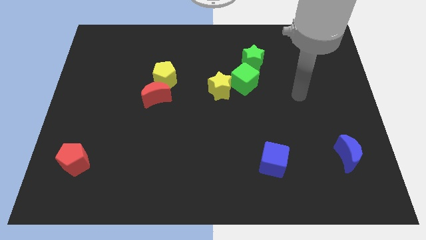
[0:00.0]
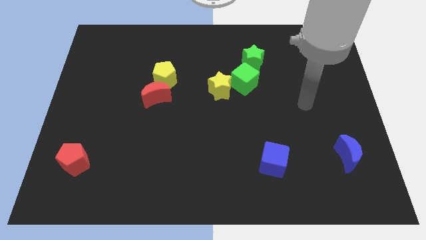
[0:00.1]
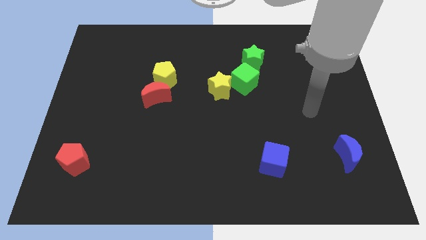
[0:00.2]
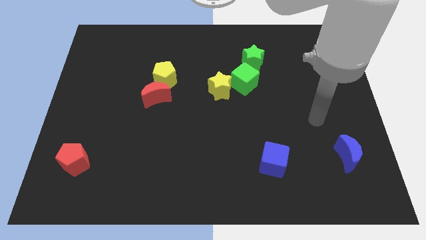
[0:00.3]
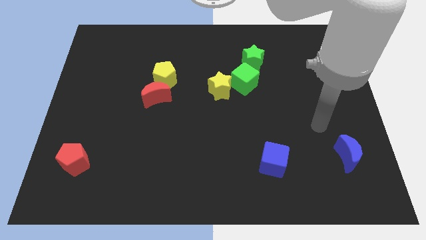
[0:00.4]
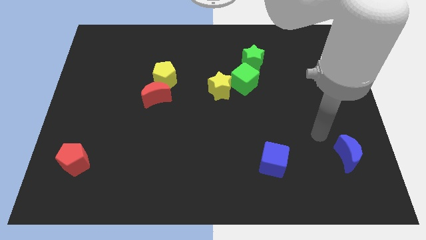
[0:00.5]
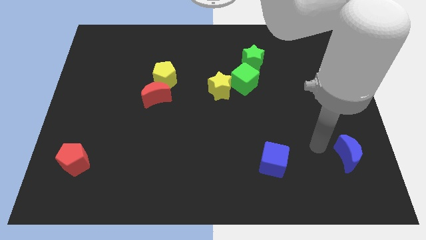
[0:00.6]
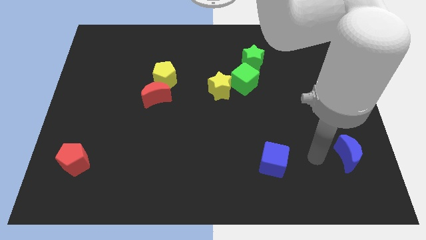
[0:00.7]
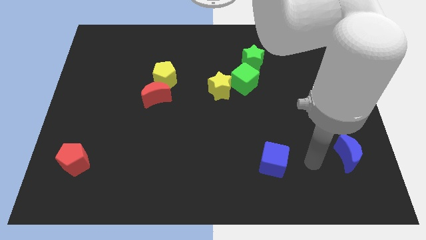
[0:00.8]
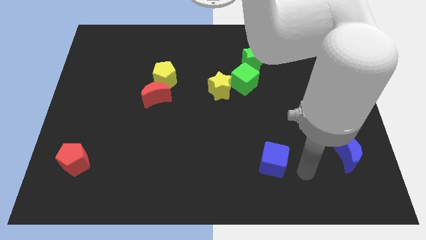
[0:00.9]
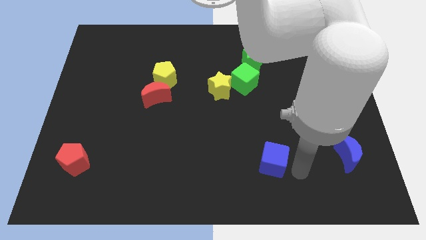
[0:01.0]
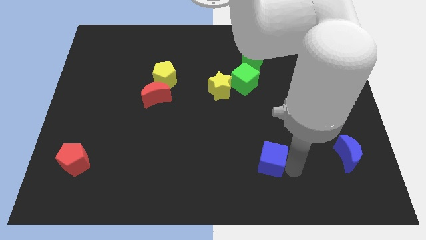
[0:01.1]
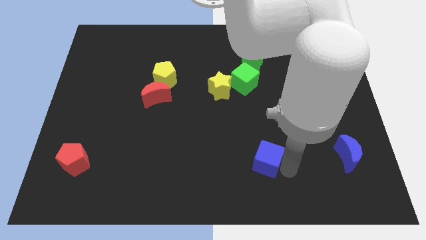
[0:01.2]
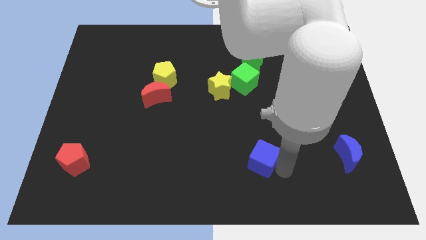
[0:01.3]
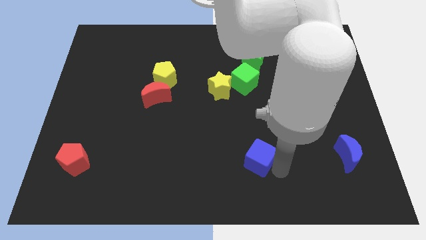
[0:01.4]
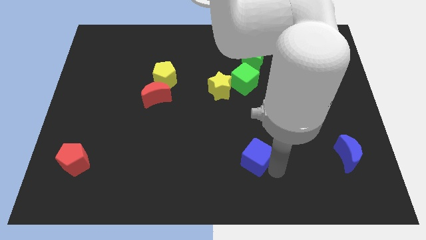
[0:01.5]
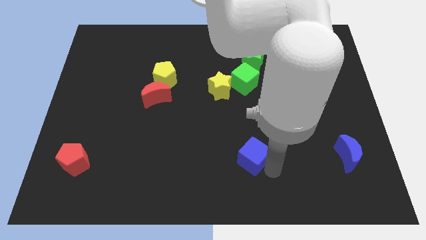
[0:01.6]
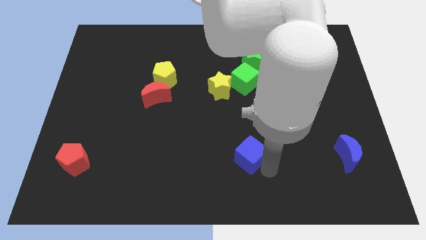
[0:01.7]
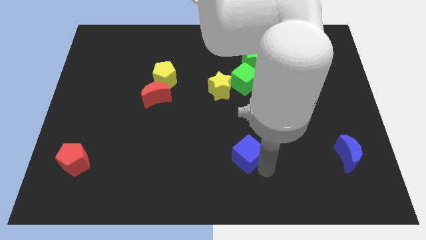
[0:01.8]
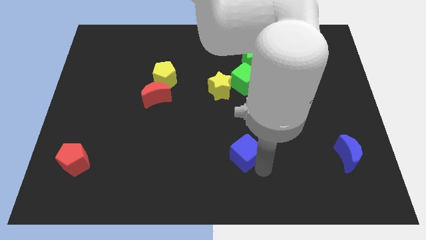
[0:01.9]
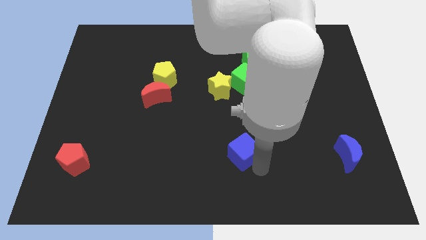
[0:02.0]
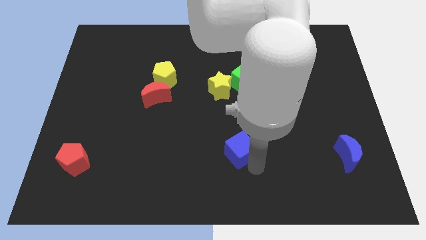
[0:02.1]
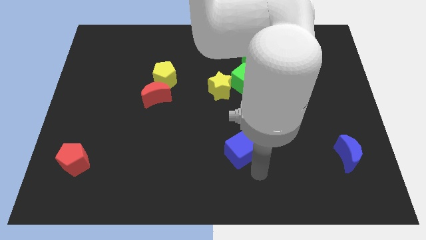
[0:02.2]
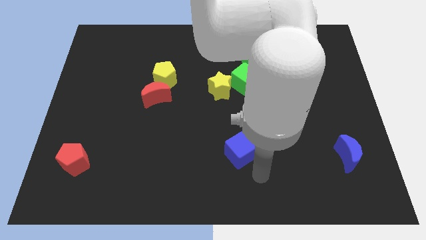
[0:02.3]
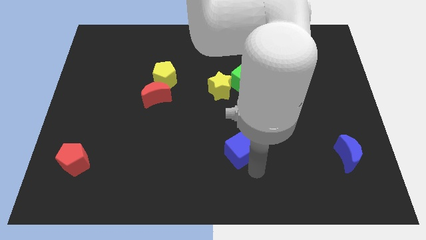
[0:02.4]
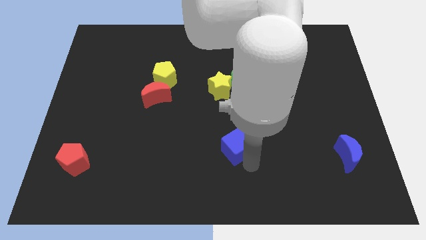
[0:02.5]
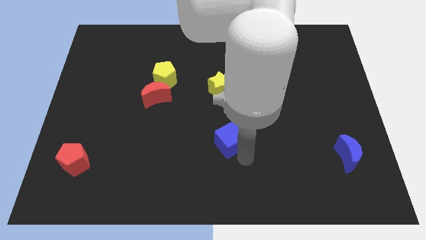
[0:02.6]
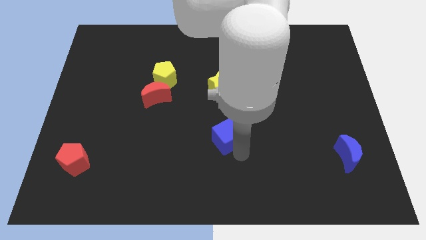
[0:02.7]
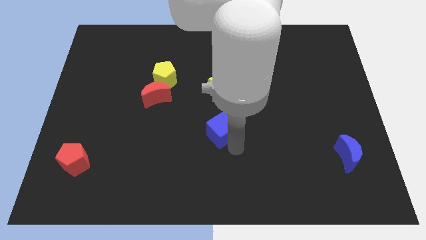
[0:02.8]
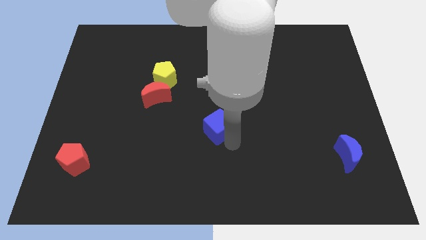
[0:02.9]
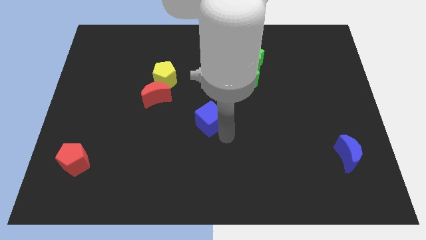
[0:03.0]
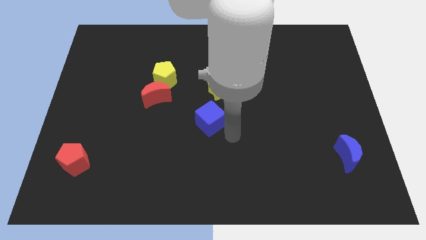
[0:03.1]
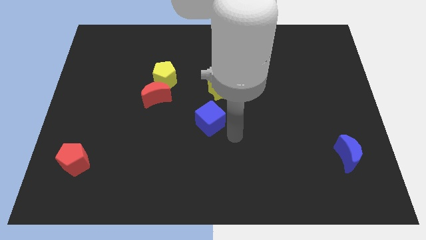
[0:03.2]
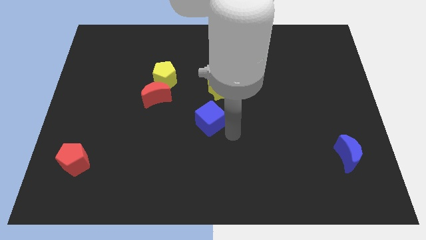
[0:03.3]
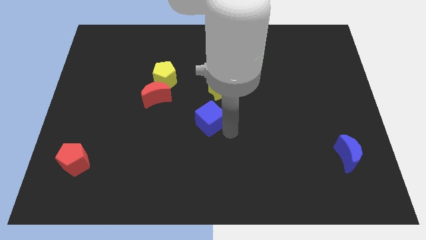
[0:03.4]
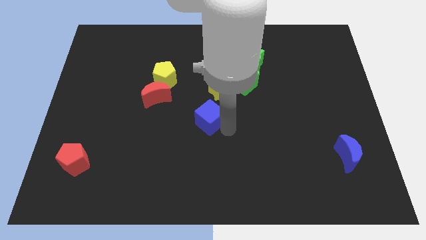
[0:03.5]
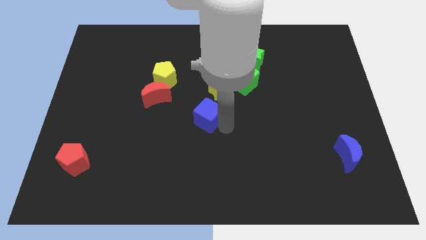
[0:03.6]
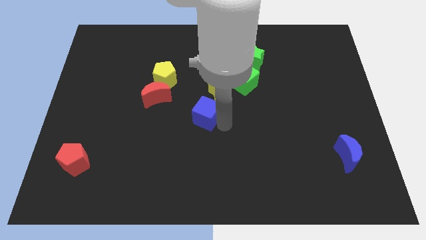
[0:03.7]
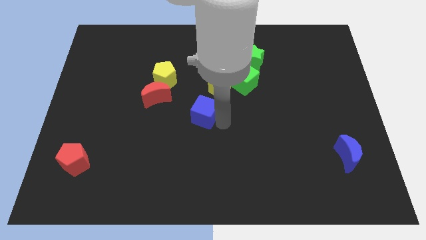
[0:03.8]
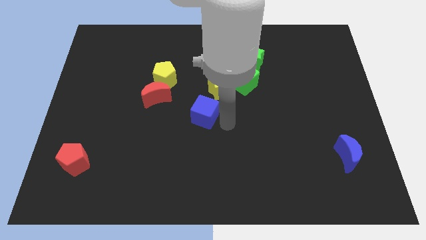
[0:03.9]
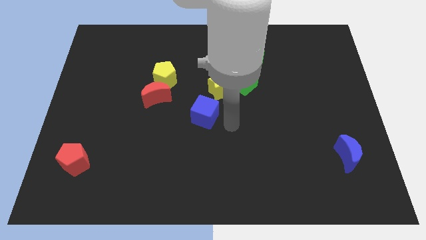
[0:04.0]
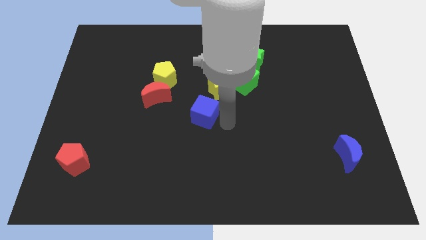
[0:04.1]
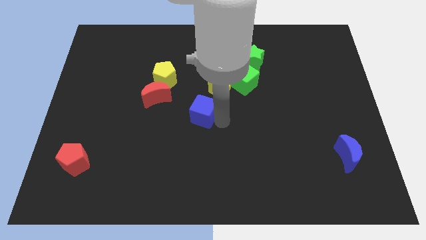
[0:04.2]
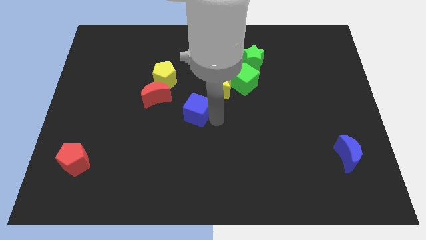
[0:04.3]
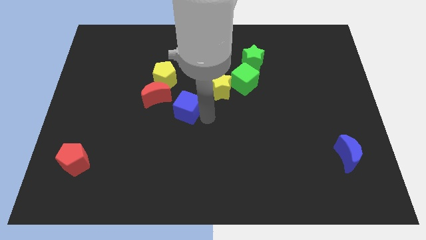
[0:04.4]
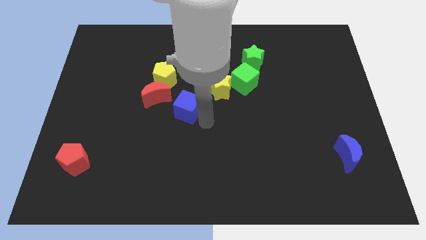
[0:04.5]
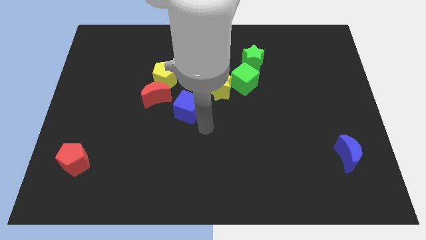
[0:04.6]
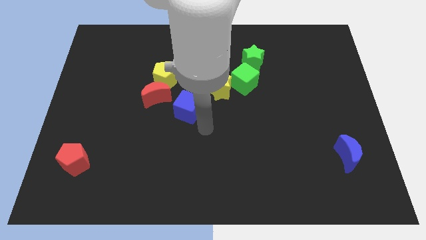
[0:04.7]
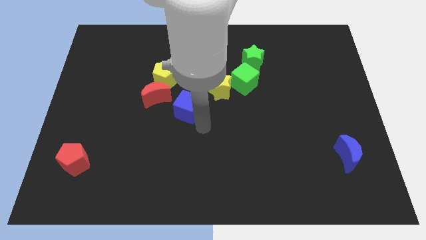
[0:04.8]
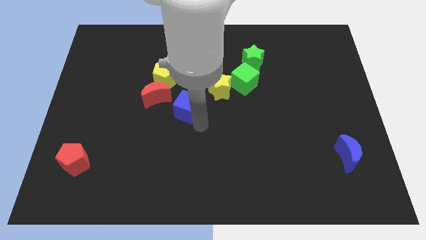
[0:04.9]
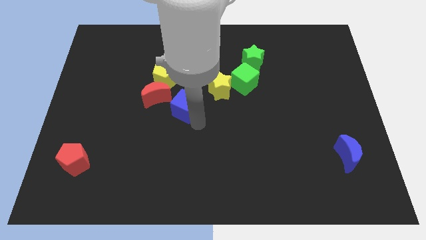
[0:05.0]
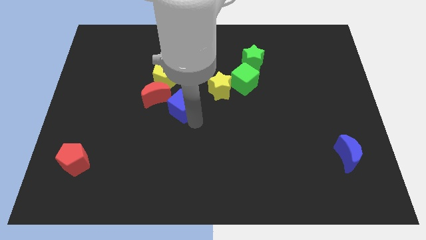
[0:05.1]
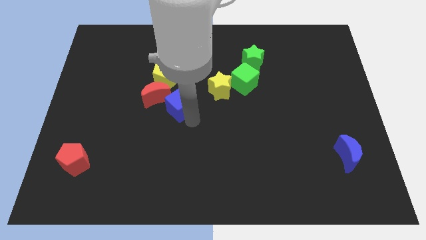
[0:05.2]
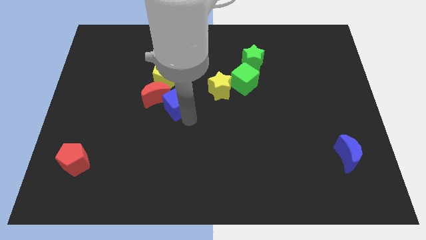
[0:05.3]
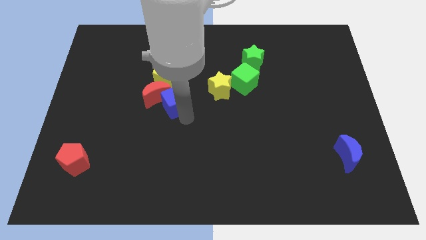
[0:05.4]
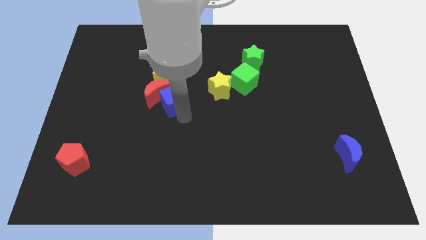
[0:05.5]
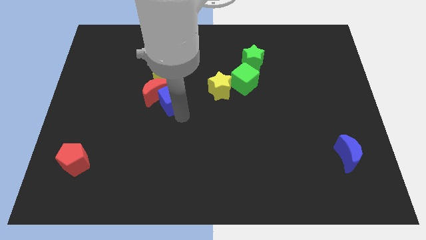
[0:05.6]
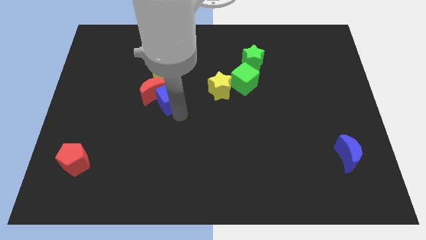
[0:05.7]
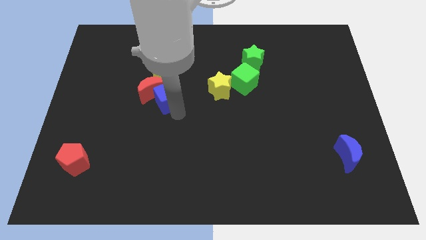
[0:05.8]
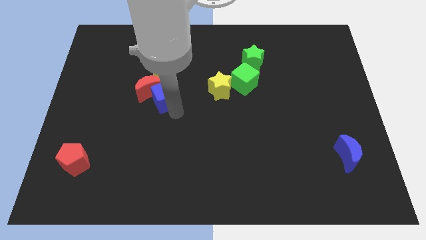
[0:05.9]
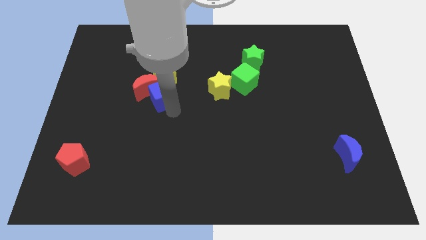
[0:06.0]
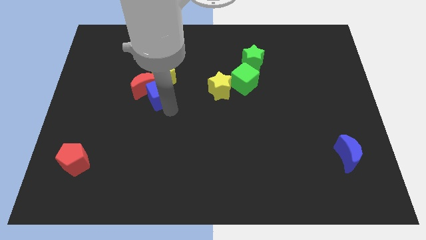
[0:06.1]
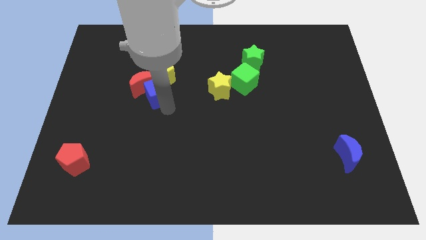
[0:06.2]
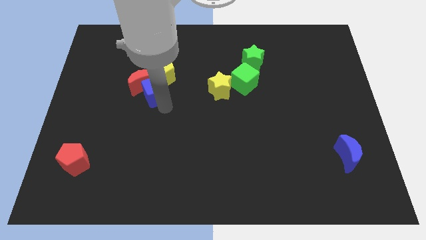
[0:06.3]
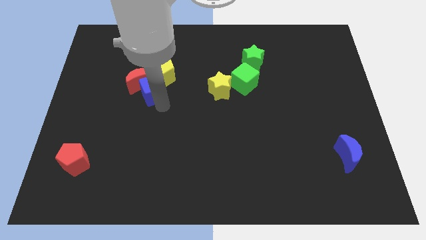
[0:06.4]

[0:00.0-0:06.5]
put the blue cube to the yellow pentagon

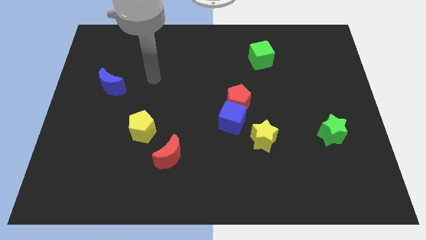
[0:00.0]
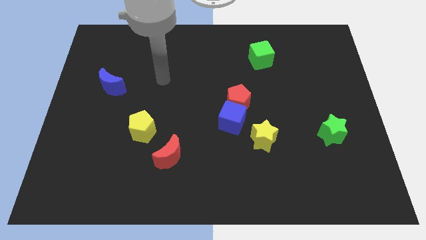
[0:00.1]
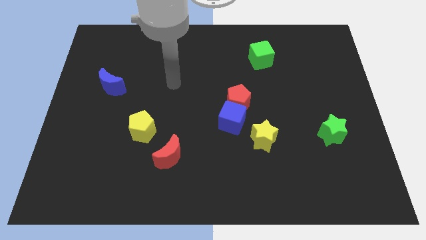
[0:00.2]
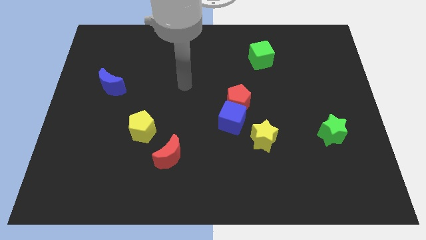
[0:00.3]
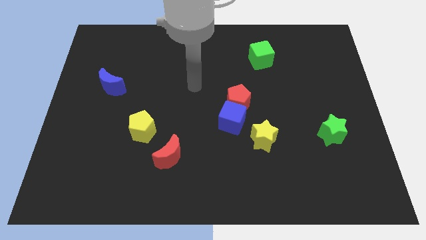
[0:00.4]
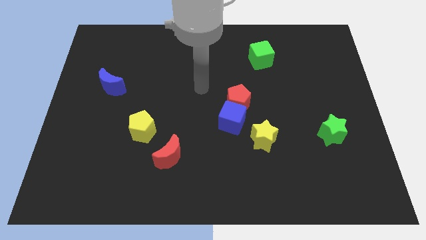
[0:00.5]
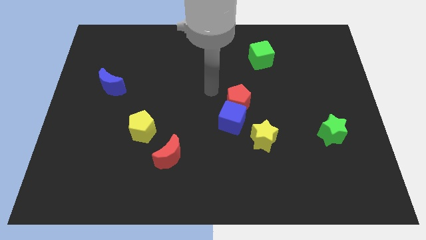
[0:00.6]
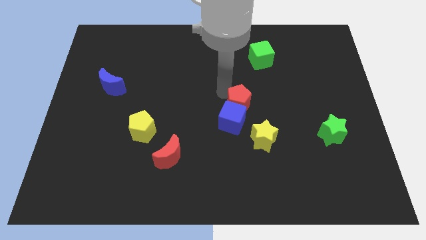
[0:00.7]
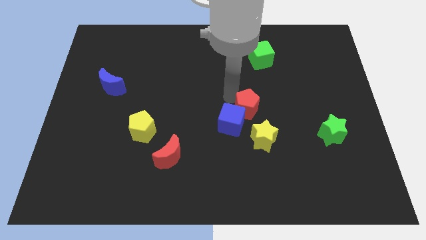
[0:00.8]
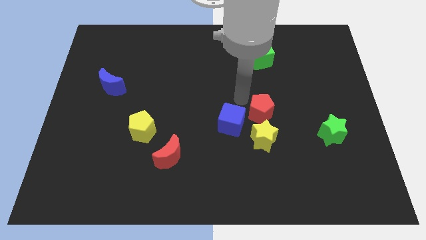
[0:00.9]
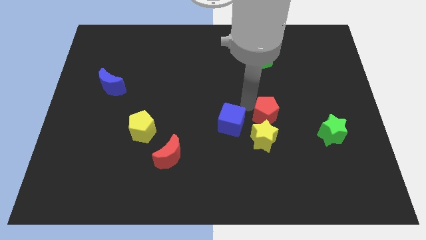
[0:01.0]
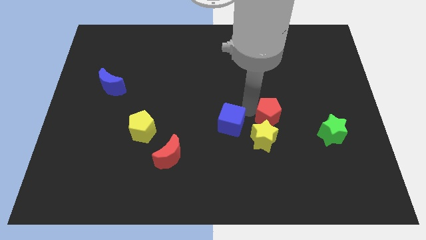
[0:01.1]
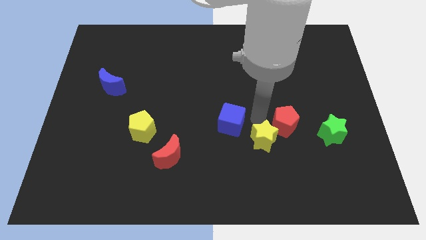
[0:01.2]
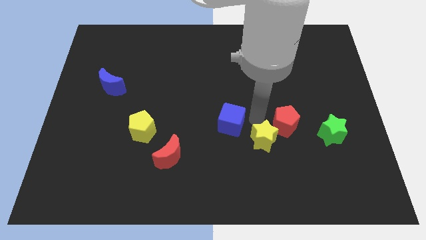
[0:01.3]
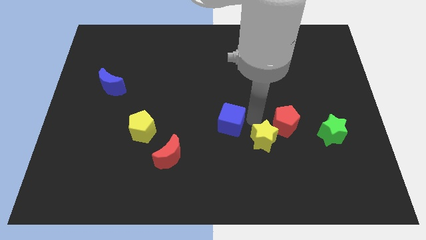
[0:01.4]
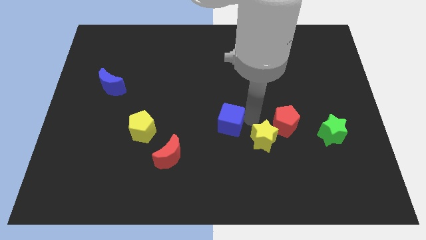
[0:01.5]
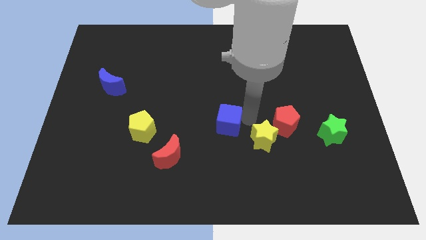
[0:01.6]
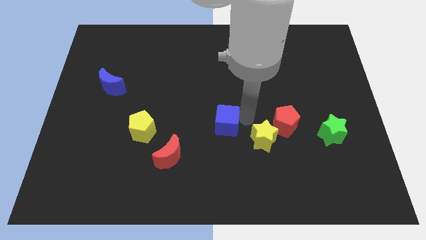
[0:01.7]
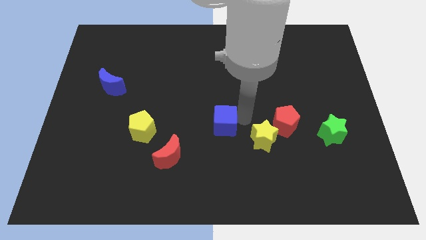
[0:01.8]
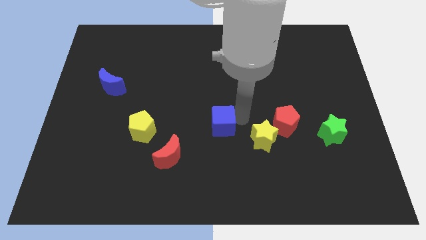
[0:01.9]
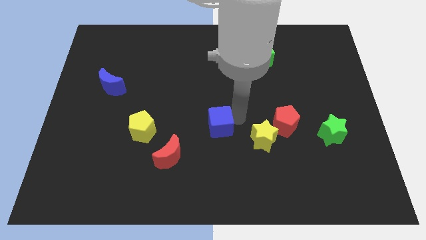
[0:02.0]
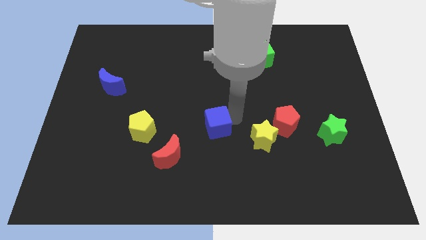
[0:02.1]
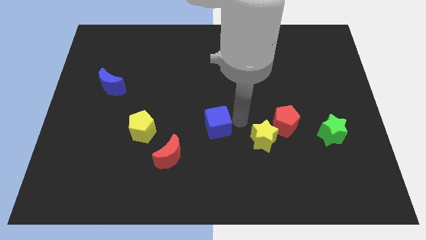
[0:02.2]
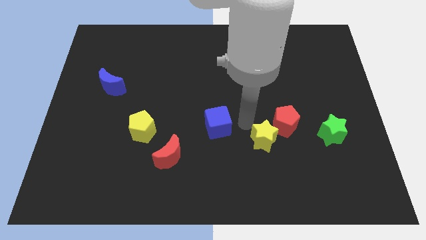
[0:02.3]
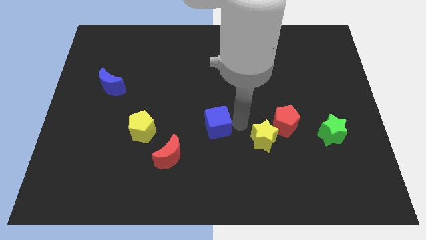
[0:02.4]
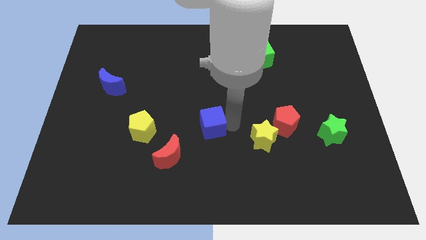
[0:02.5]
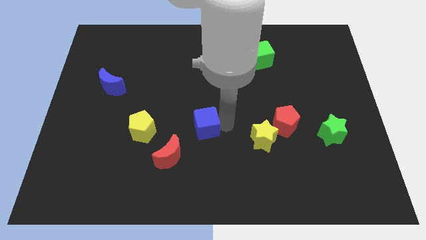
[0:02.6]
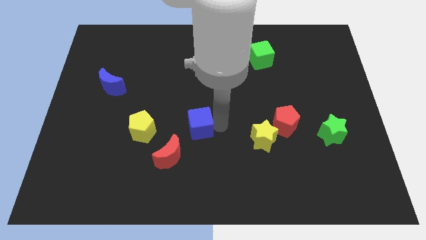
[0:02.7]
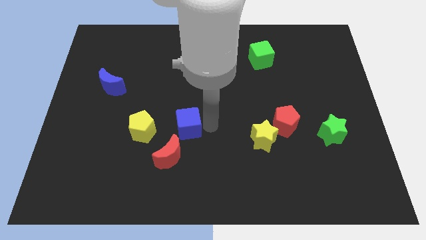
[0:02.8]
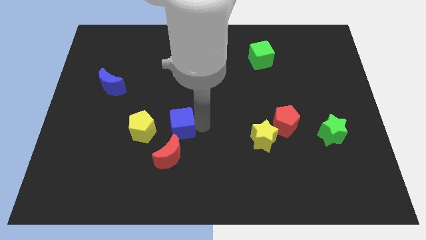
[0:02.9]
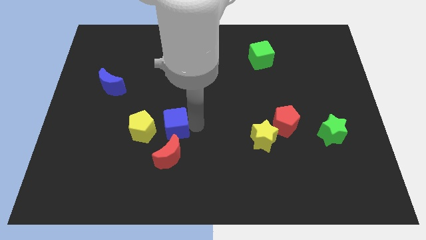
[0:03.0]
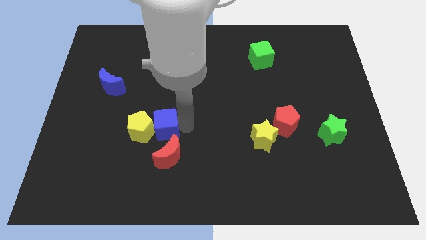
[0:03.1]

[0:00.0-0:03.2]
put the blue cube close to the yellow pentagon
